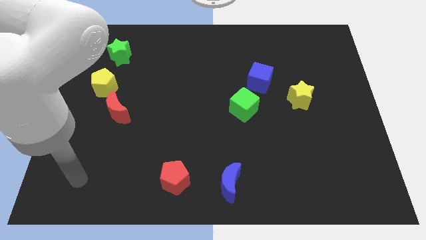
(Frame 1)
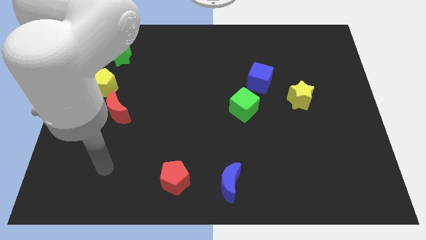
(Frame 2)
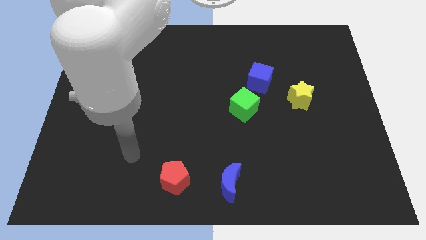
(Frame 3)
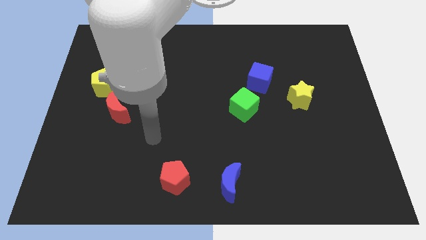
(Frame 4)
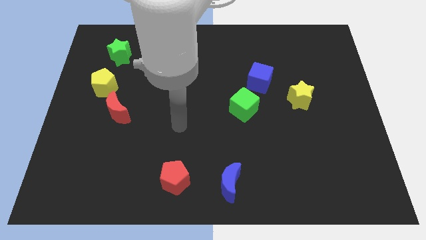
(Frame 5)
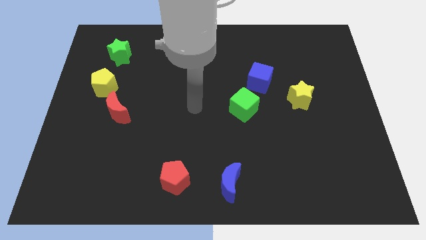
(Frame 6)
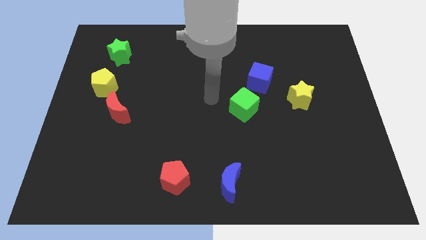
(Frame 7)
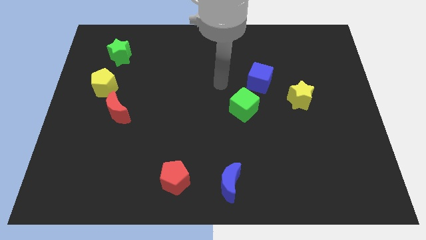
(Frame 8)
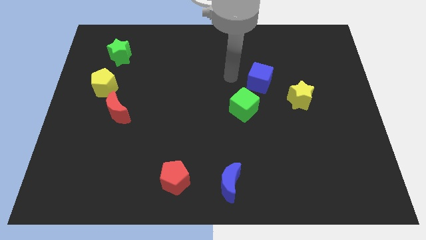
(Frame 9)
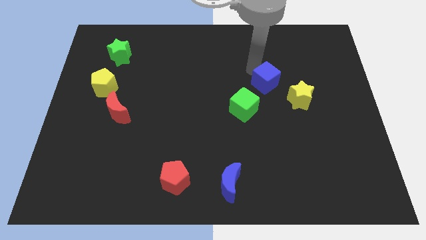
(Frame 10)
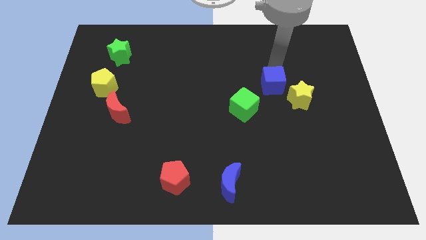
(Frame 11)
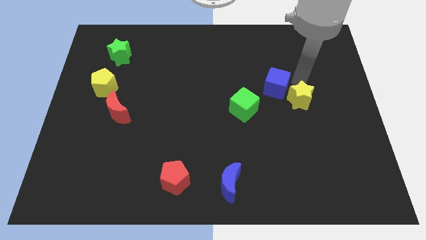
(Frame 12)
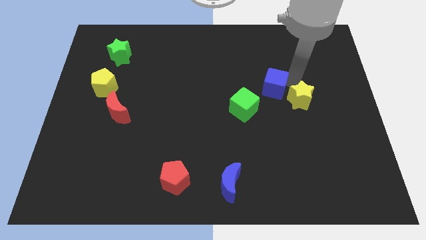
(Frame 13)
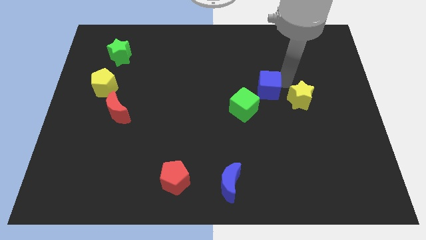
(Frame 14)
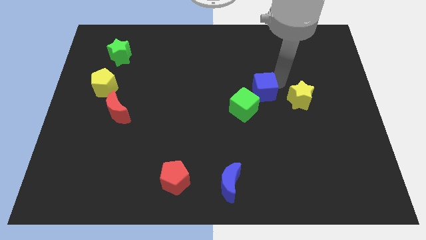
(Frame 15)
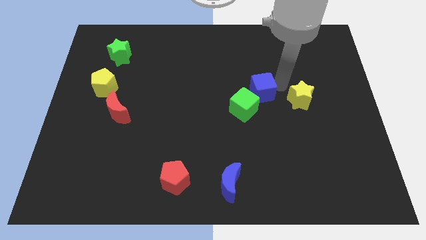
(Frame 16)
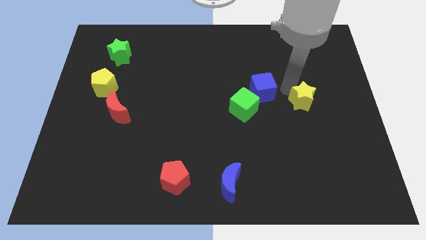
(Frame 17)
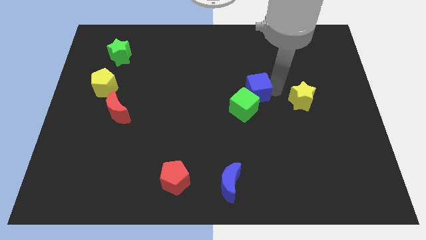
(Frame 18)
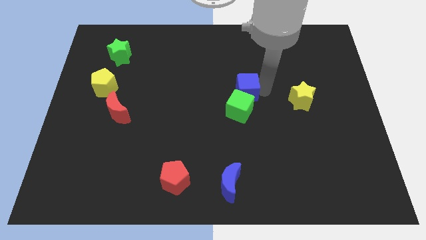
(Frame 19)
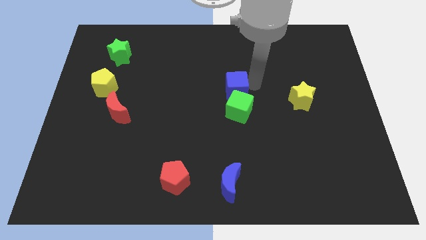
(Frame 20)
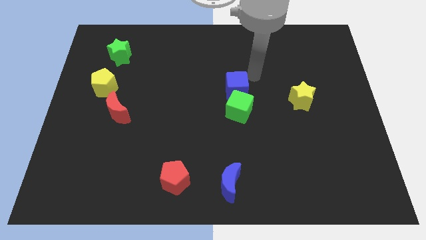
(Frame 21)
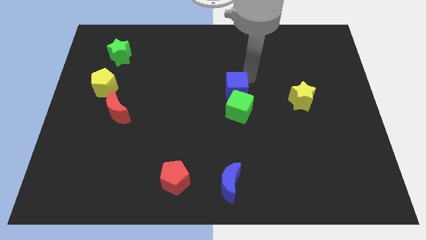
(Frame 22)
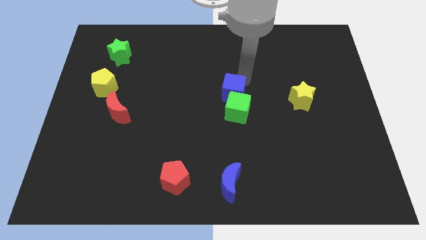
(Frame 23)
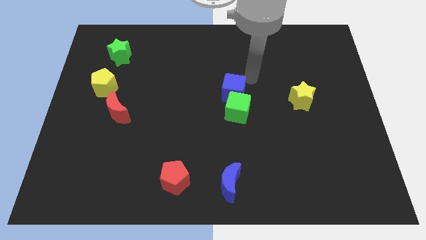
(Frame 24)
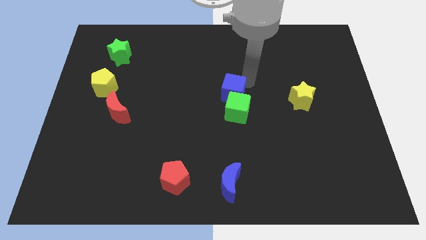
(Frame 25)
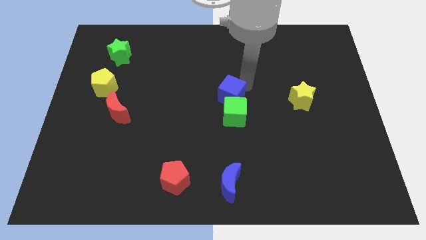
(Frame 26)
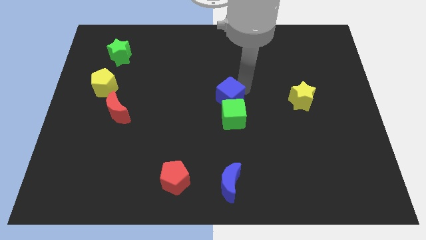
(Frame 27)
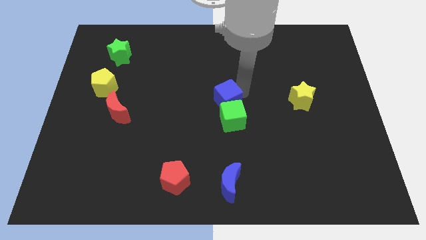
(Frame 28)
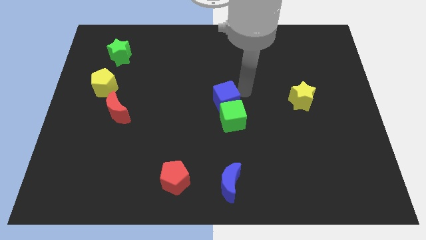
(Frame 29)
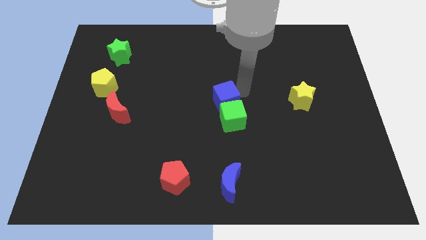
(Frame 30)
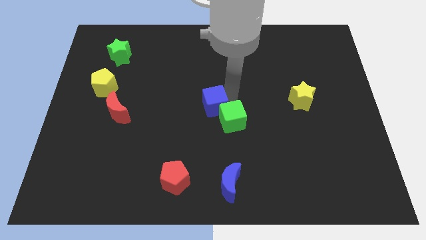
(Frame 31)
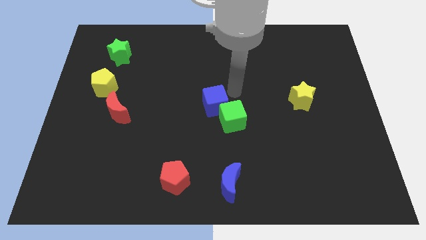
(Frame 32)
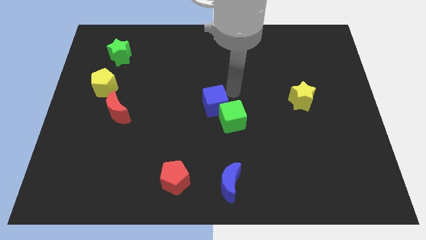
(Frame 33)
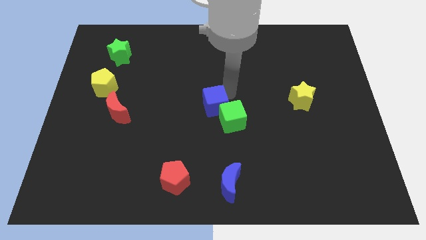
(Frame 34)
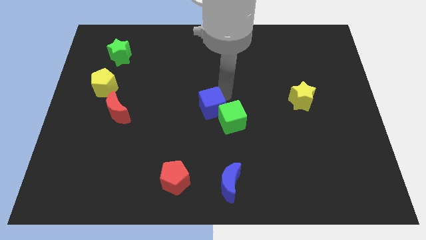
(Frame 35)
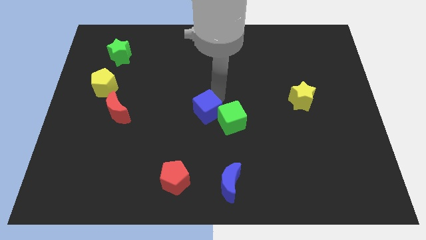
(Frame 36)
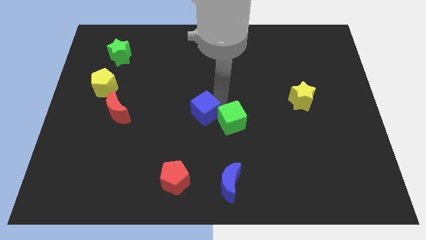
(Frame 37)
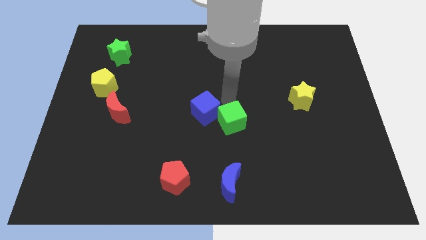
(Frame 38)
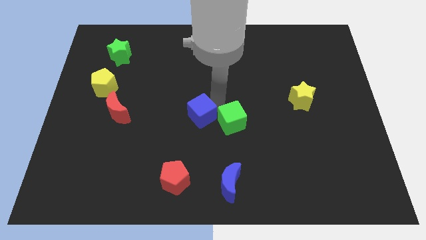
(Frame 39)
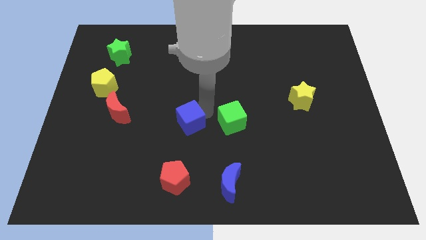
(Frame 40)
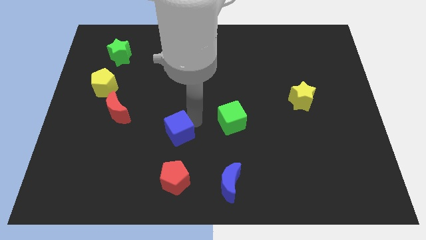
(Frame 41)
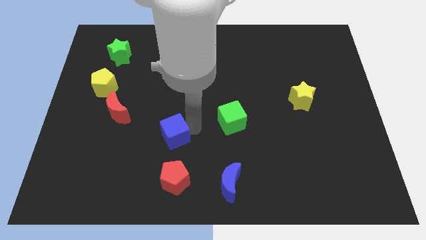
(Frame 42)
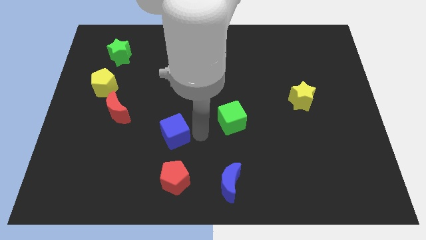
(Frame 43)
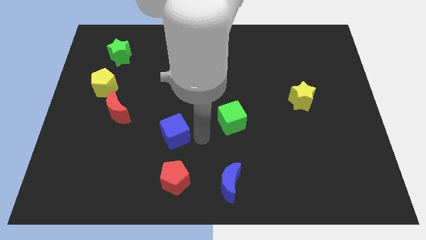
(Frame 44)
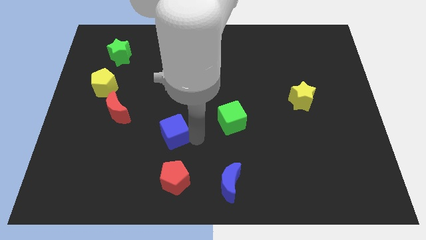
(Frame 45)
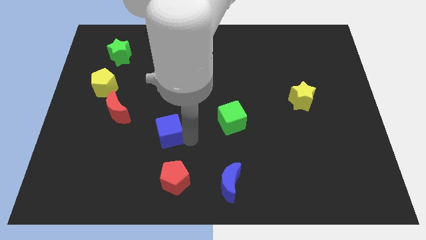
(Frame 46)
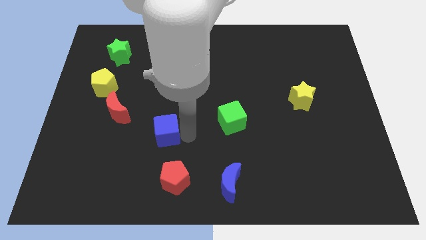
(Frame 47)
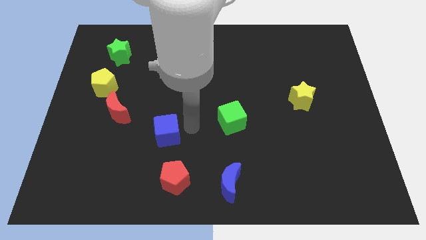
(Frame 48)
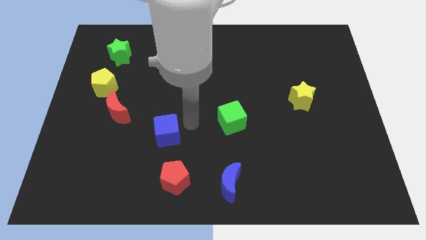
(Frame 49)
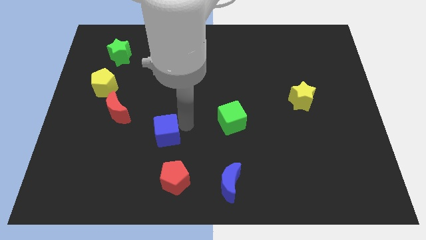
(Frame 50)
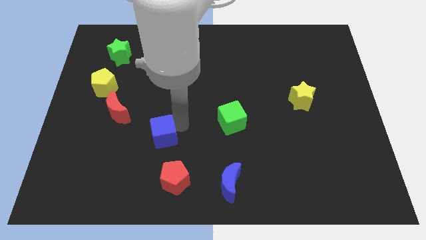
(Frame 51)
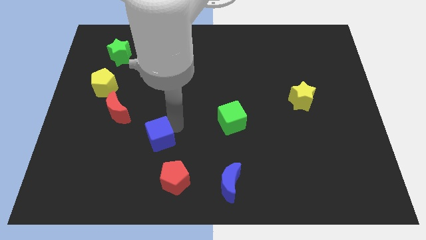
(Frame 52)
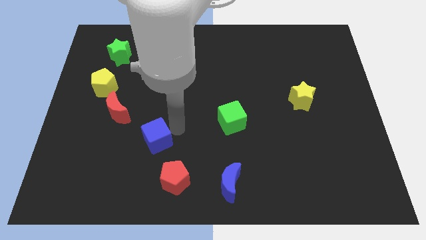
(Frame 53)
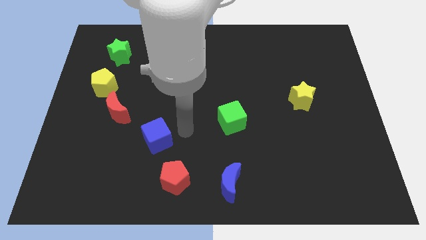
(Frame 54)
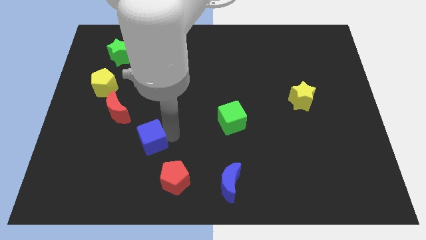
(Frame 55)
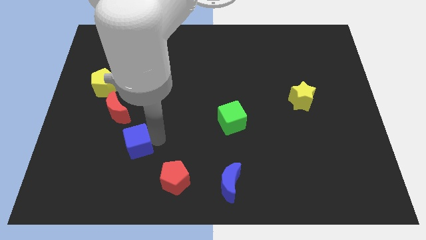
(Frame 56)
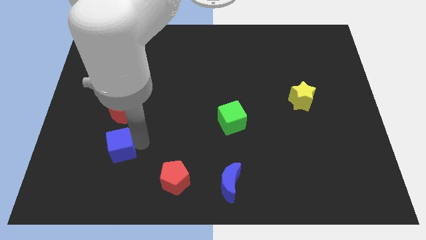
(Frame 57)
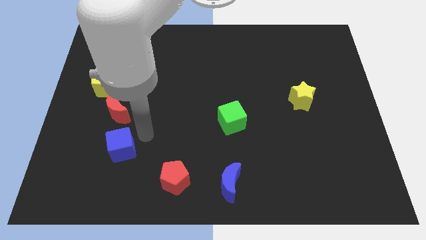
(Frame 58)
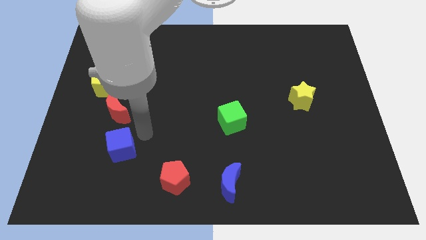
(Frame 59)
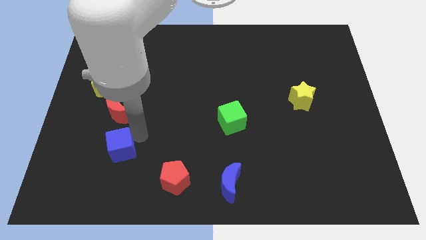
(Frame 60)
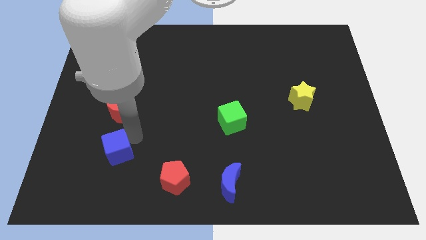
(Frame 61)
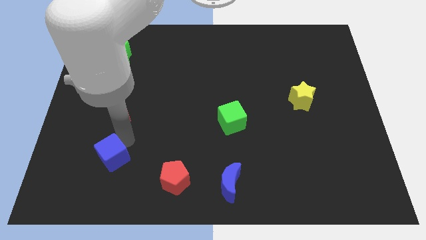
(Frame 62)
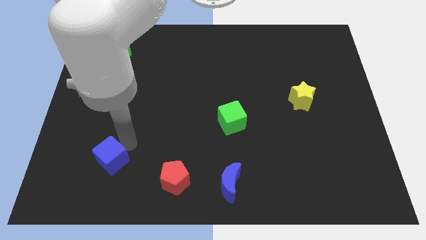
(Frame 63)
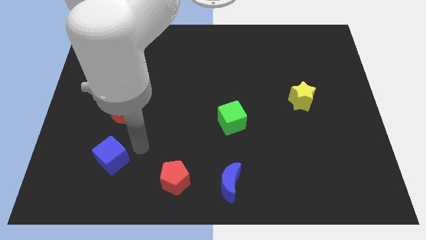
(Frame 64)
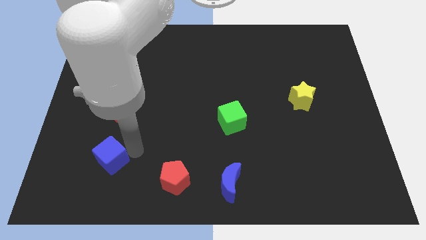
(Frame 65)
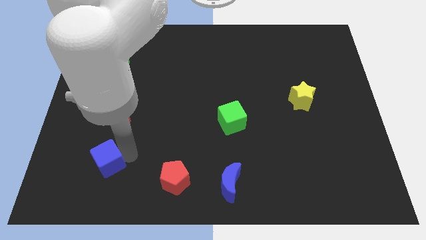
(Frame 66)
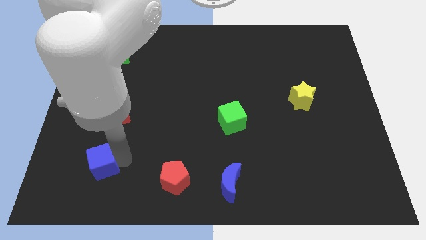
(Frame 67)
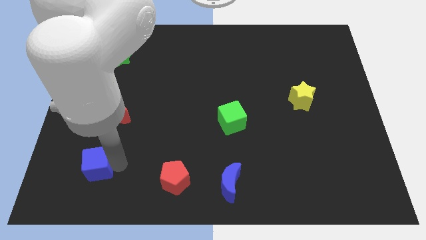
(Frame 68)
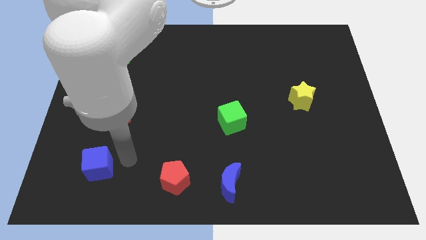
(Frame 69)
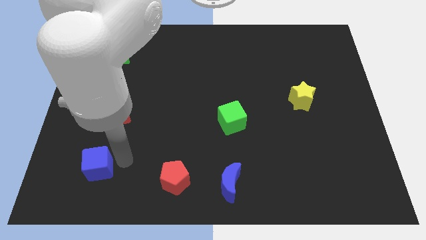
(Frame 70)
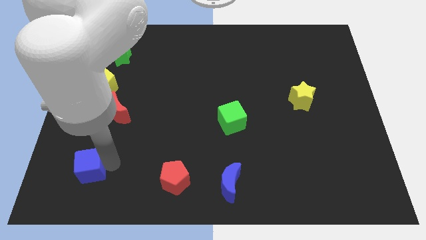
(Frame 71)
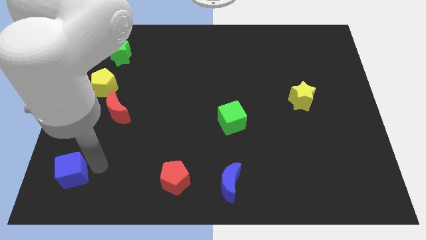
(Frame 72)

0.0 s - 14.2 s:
push the blue cube to the bottom left corner

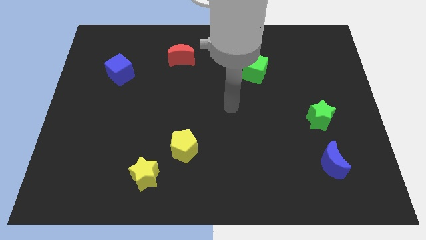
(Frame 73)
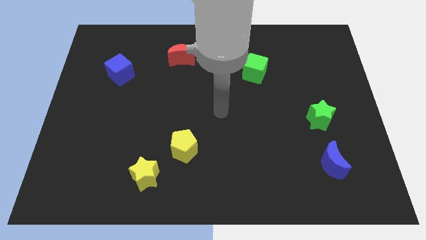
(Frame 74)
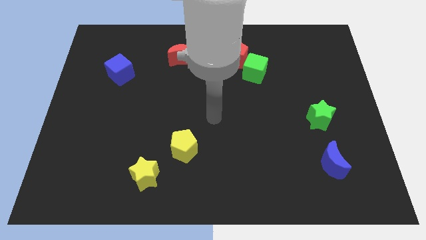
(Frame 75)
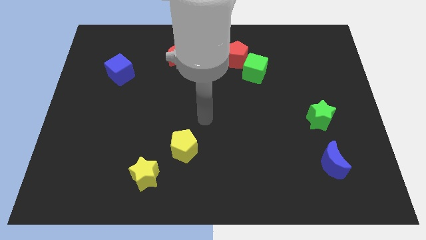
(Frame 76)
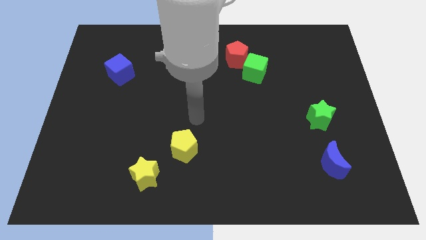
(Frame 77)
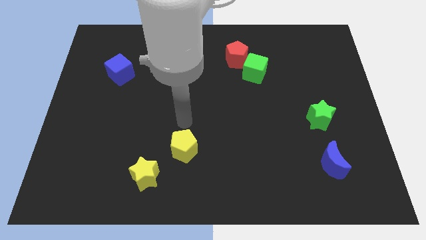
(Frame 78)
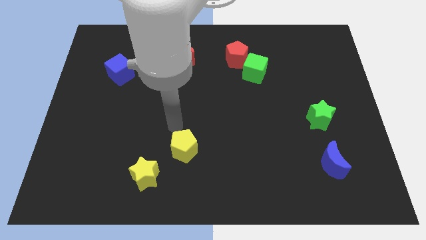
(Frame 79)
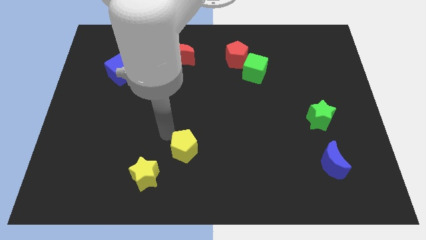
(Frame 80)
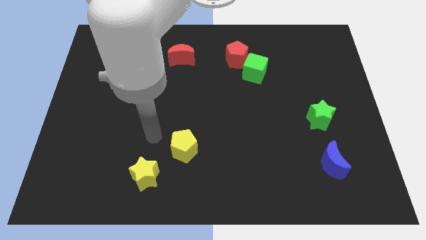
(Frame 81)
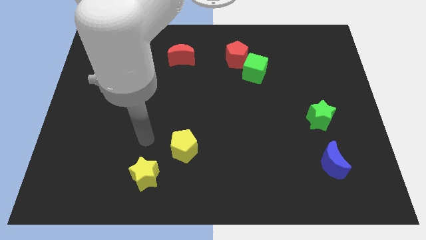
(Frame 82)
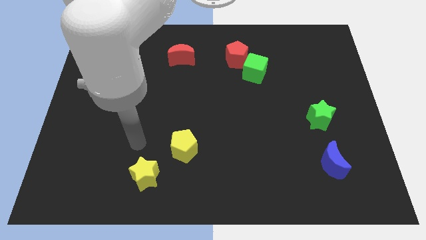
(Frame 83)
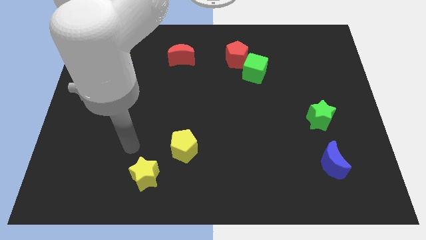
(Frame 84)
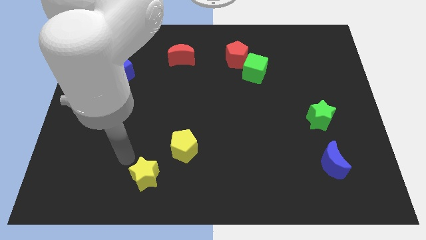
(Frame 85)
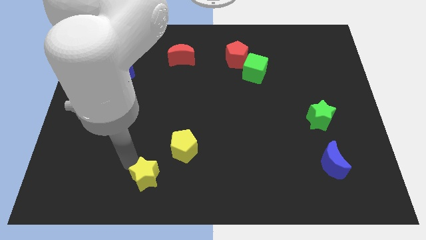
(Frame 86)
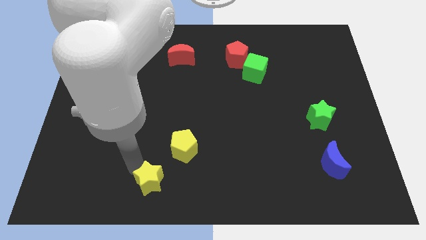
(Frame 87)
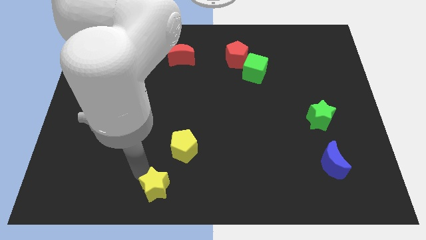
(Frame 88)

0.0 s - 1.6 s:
put the yellow star to the bottom side
